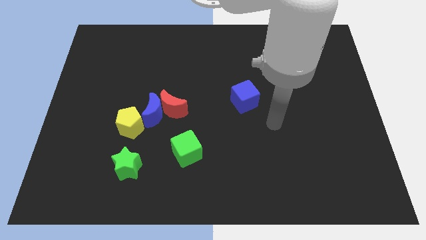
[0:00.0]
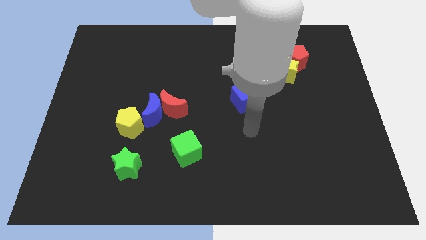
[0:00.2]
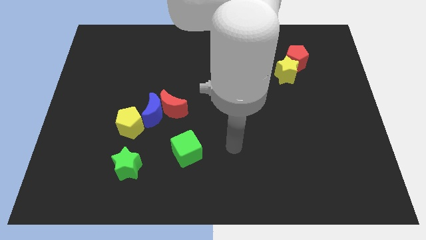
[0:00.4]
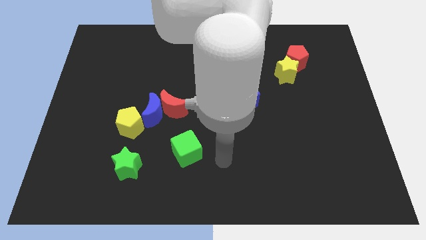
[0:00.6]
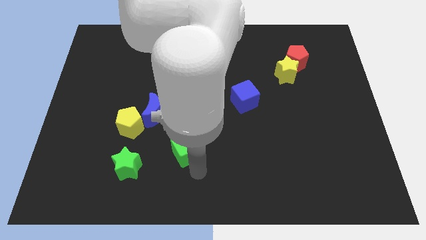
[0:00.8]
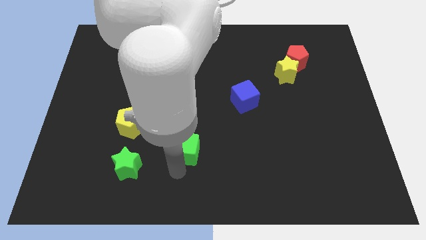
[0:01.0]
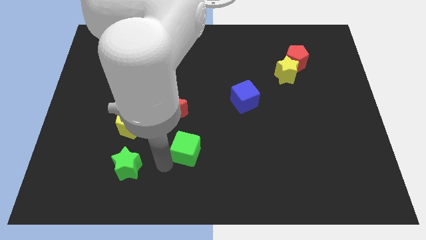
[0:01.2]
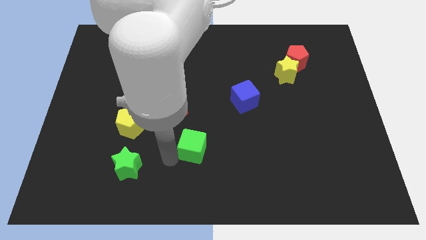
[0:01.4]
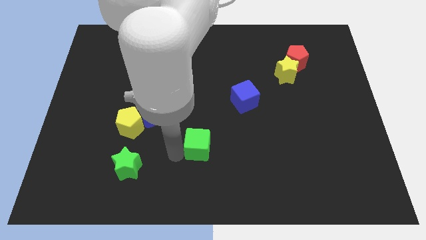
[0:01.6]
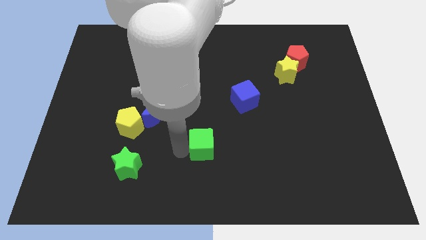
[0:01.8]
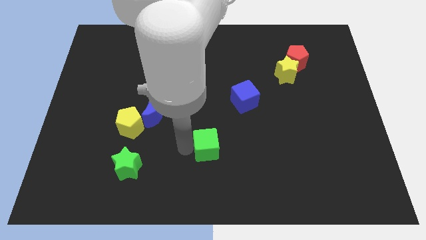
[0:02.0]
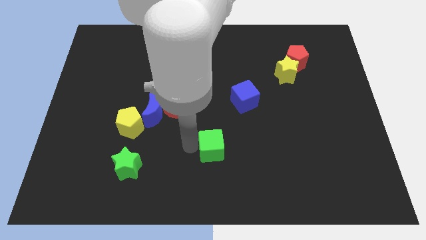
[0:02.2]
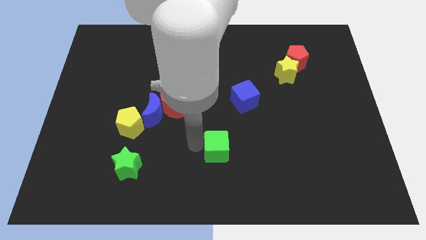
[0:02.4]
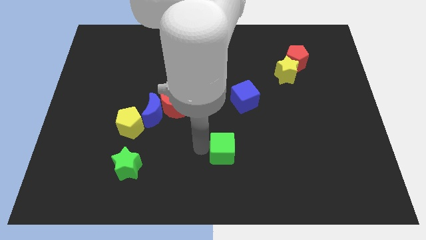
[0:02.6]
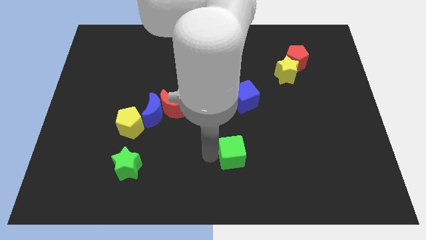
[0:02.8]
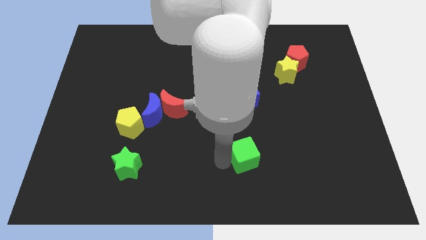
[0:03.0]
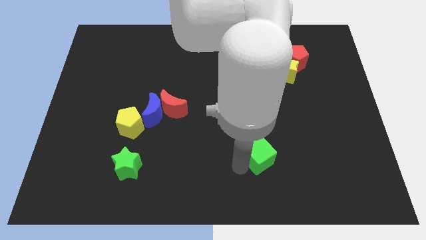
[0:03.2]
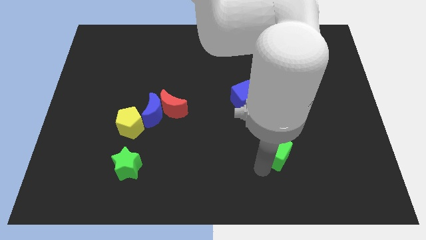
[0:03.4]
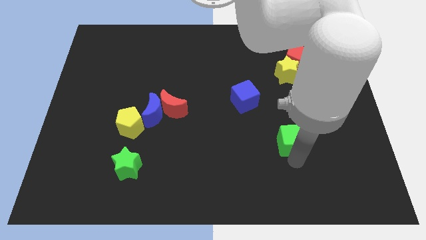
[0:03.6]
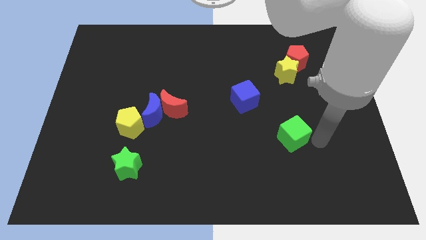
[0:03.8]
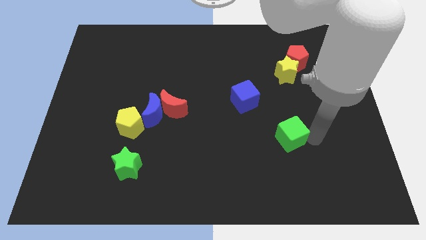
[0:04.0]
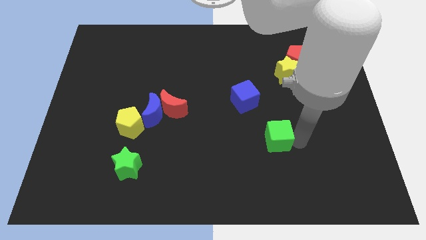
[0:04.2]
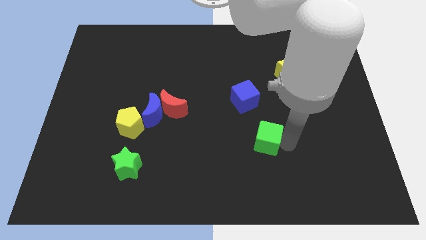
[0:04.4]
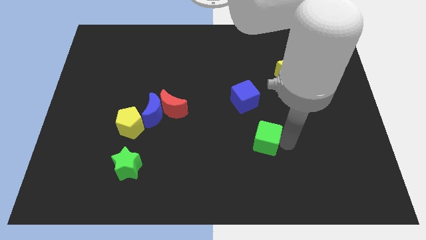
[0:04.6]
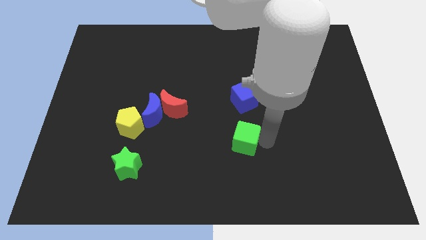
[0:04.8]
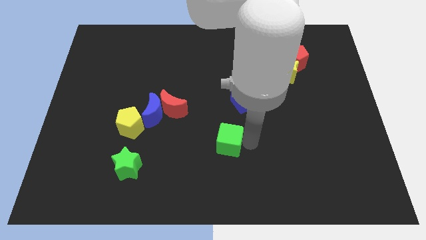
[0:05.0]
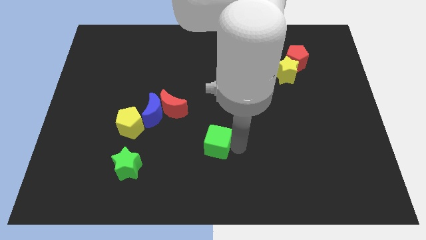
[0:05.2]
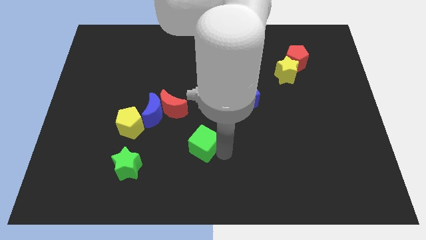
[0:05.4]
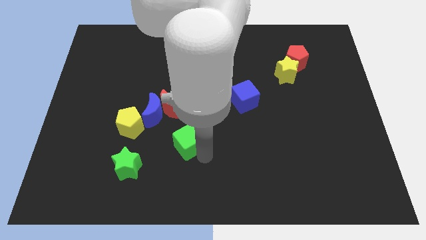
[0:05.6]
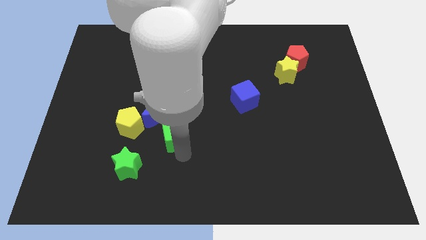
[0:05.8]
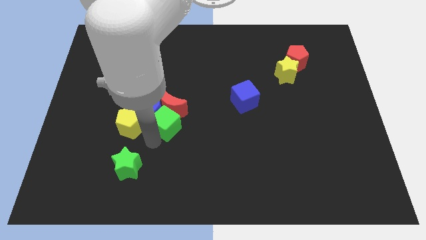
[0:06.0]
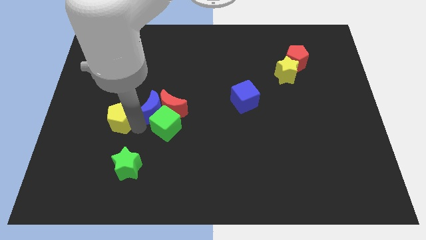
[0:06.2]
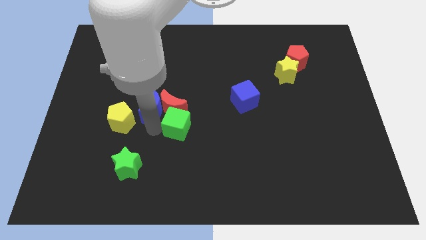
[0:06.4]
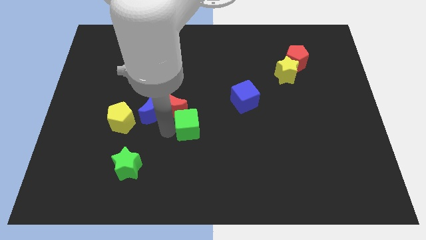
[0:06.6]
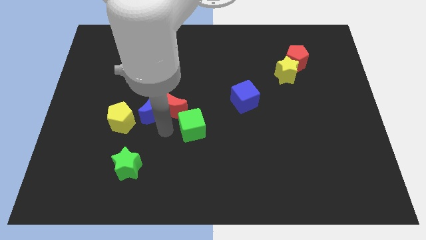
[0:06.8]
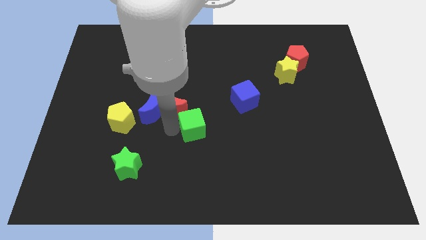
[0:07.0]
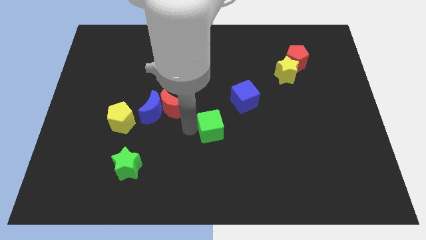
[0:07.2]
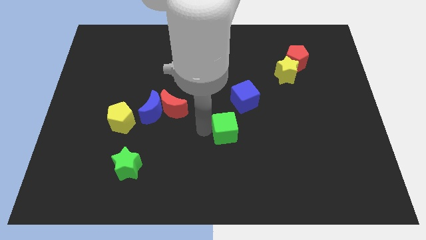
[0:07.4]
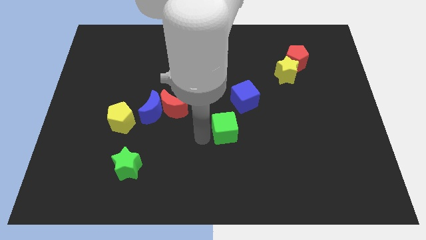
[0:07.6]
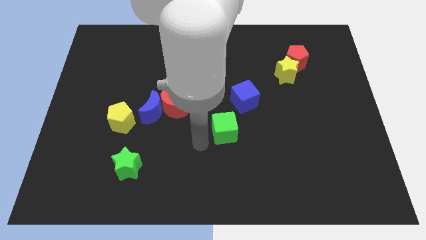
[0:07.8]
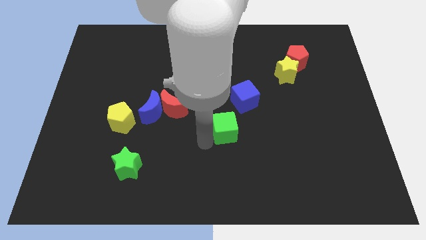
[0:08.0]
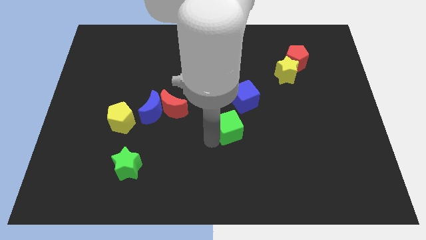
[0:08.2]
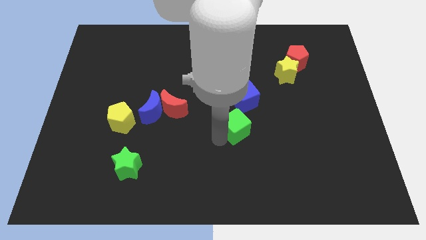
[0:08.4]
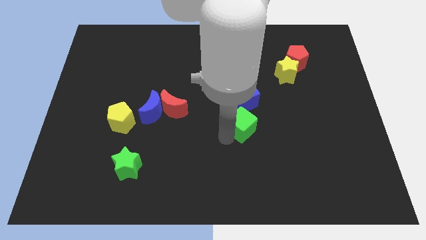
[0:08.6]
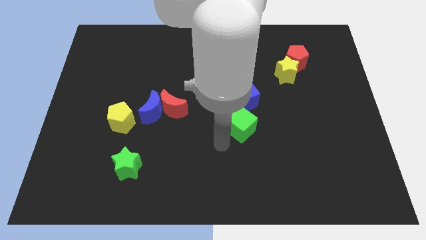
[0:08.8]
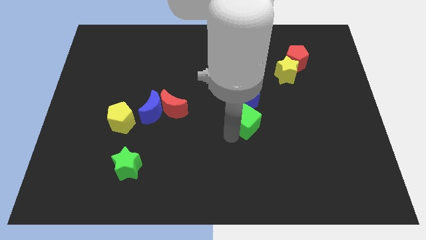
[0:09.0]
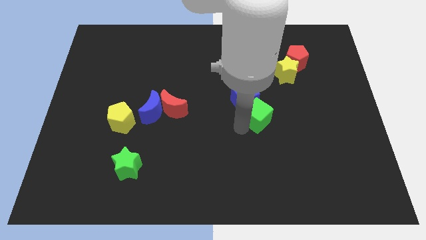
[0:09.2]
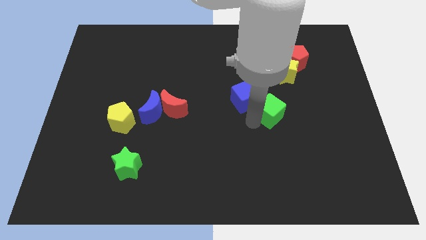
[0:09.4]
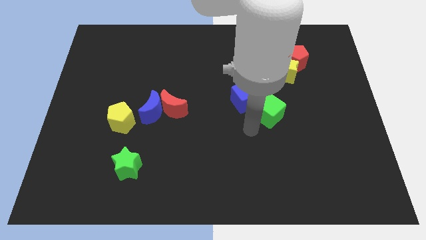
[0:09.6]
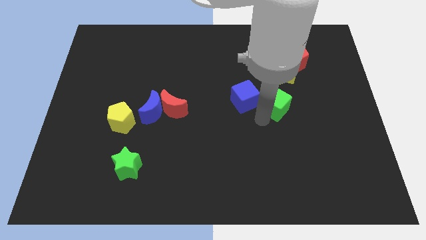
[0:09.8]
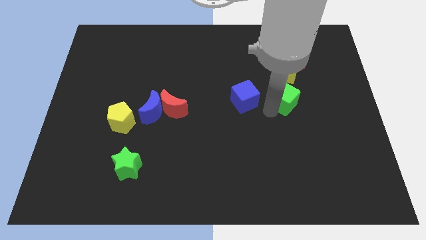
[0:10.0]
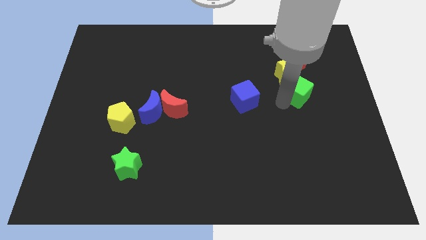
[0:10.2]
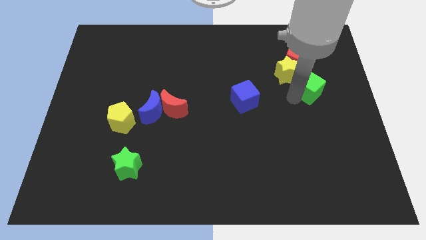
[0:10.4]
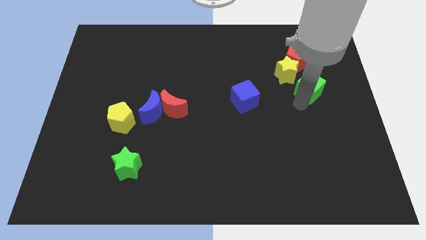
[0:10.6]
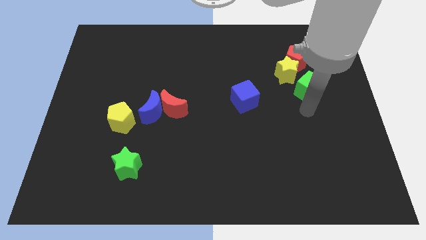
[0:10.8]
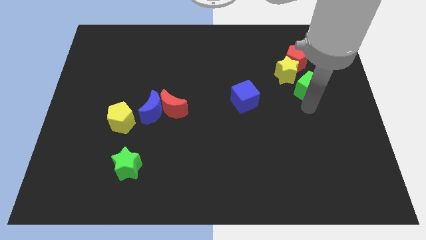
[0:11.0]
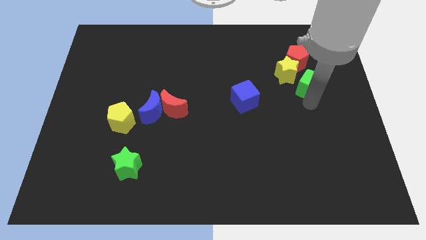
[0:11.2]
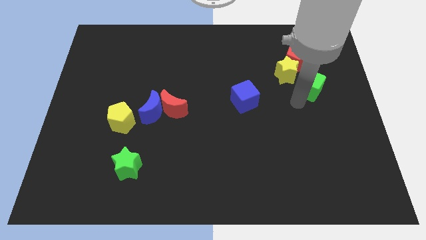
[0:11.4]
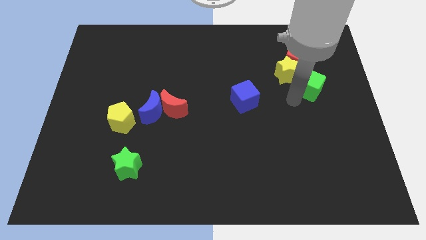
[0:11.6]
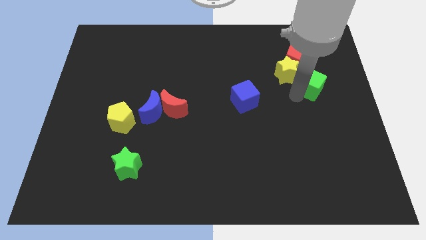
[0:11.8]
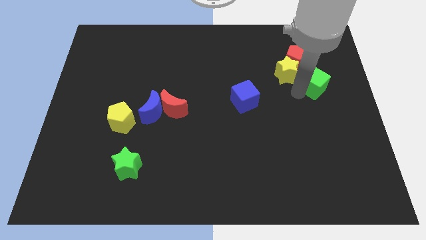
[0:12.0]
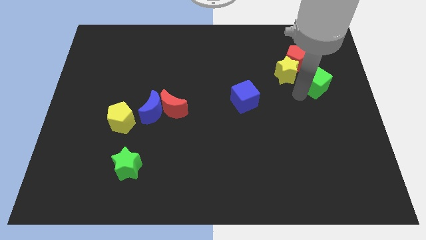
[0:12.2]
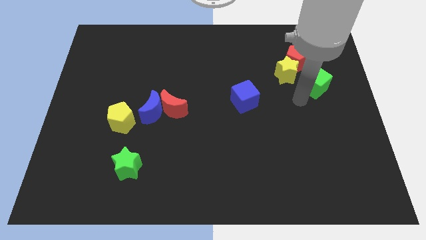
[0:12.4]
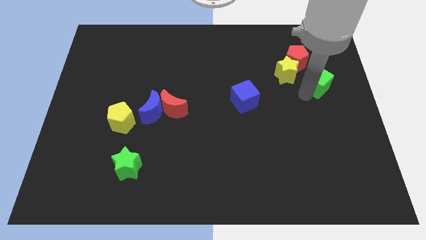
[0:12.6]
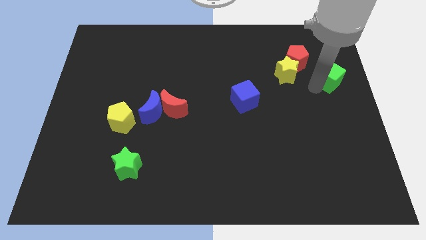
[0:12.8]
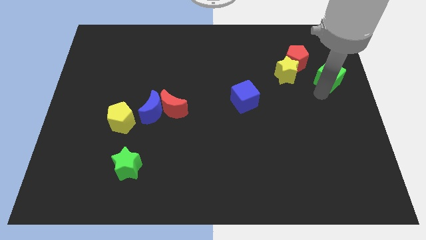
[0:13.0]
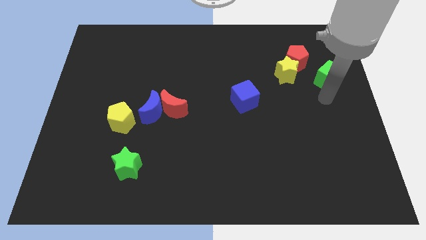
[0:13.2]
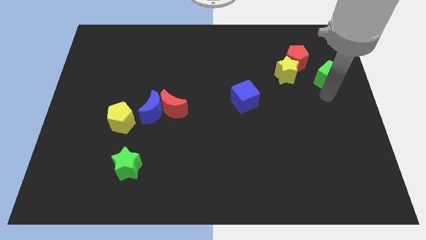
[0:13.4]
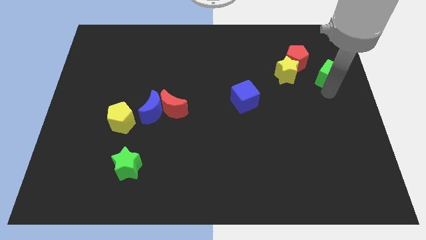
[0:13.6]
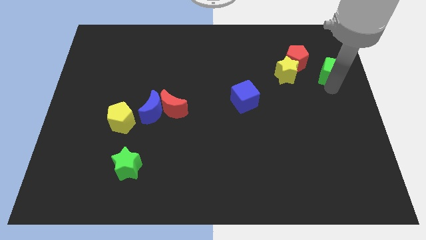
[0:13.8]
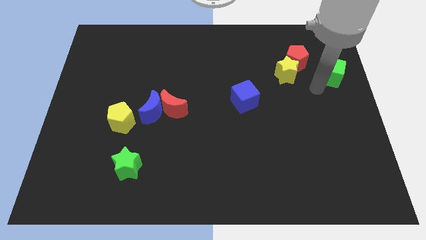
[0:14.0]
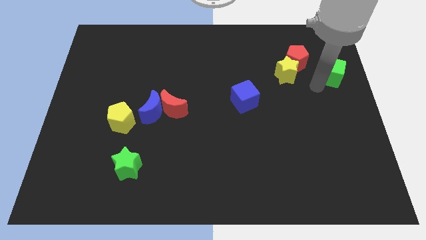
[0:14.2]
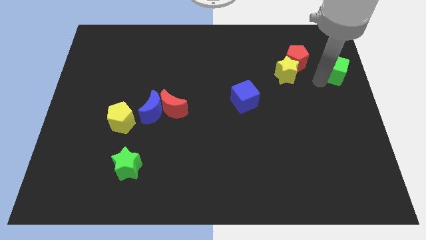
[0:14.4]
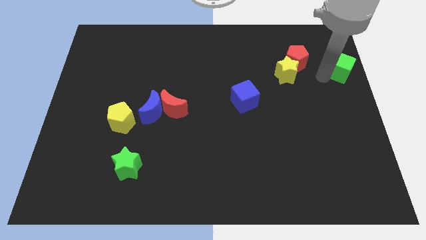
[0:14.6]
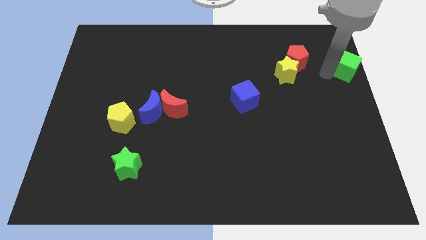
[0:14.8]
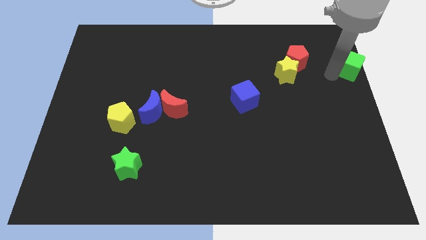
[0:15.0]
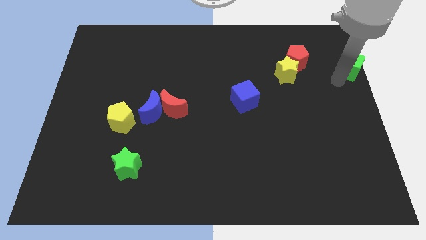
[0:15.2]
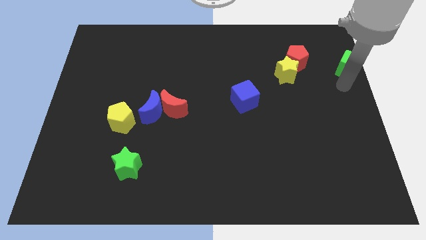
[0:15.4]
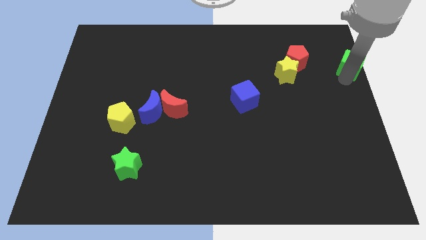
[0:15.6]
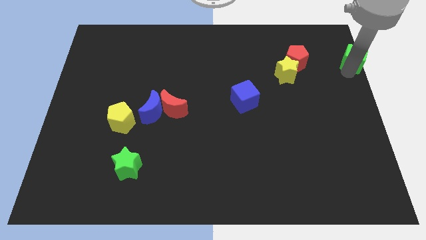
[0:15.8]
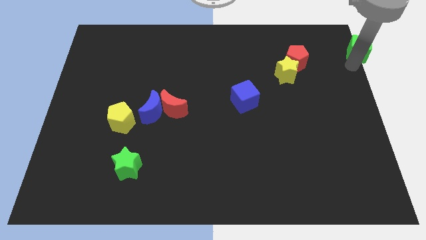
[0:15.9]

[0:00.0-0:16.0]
push the green cube to the upper right corner
